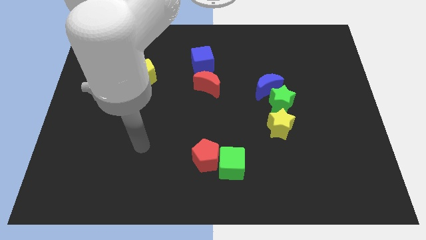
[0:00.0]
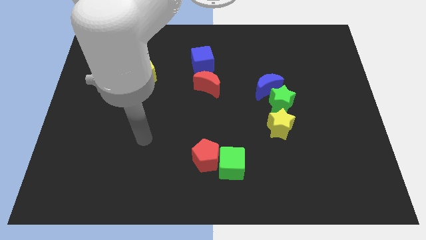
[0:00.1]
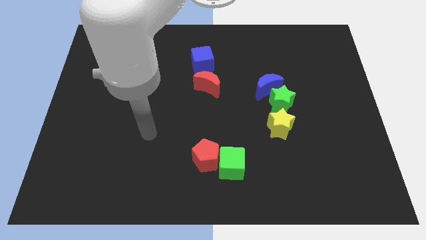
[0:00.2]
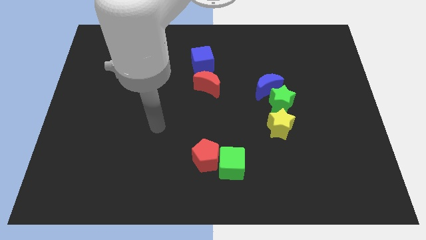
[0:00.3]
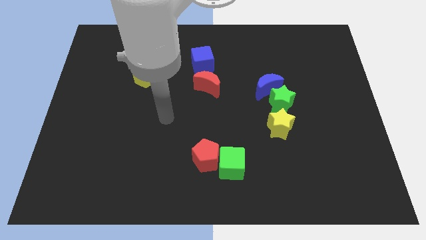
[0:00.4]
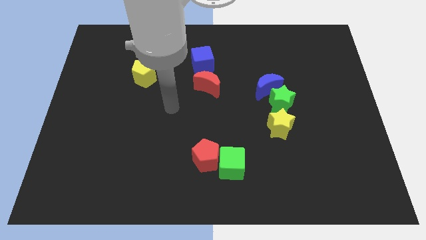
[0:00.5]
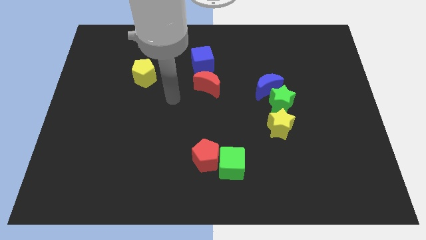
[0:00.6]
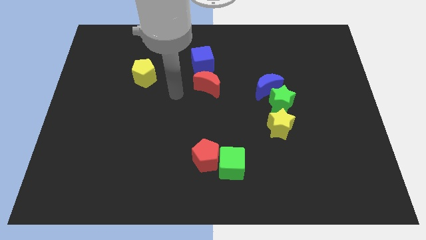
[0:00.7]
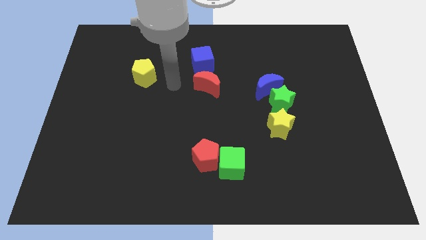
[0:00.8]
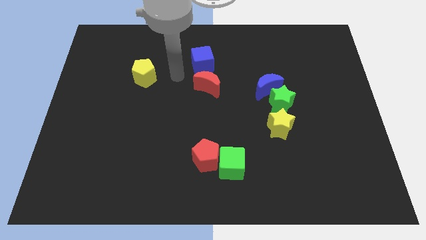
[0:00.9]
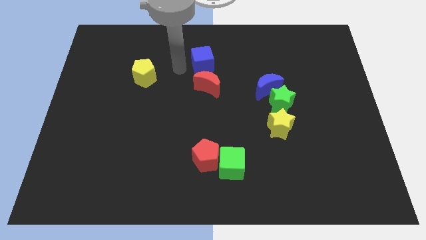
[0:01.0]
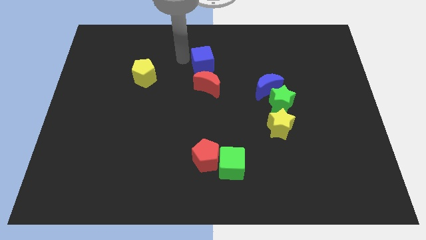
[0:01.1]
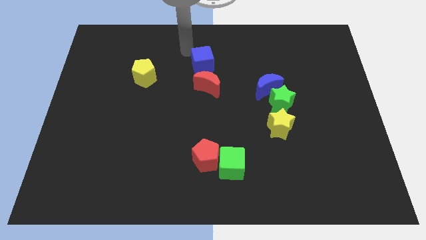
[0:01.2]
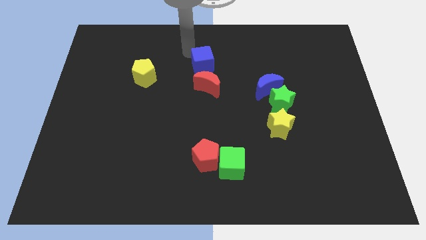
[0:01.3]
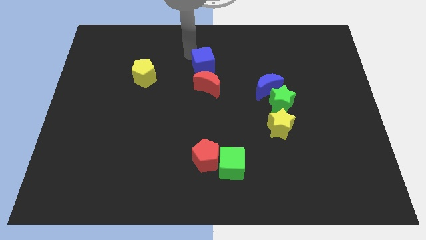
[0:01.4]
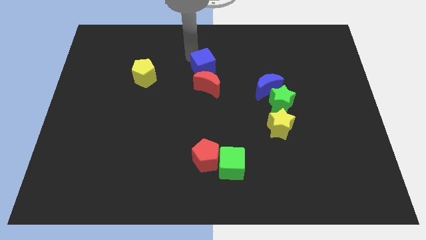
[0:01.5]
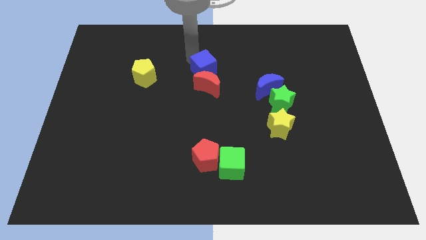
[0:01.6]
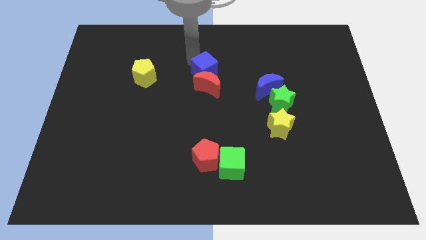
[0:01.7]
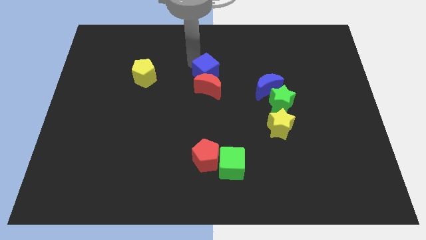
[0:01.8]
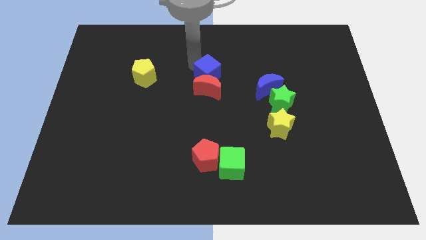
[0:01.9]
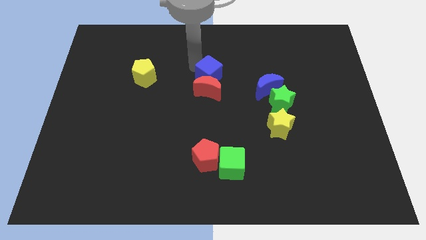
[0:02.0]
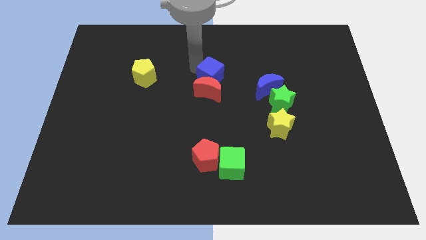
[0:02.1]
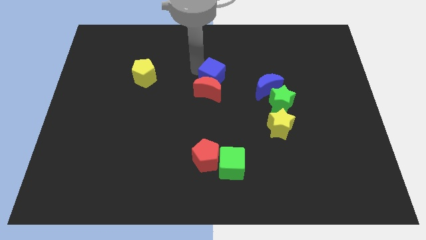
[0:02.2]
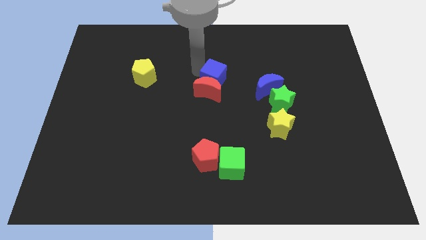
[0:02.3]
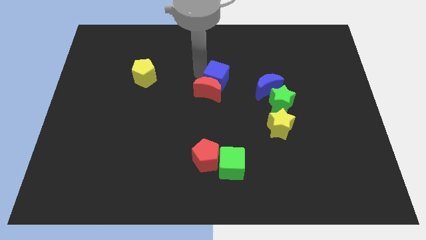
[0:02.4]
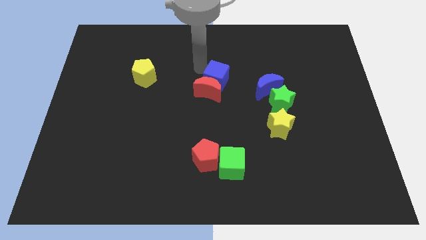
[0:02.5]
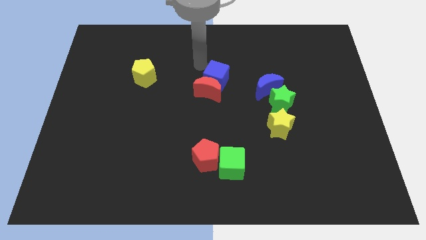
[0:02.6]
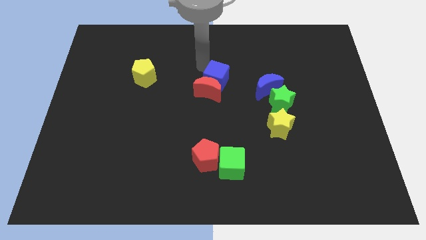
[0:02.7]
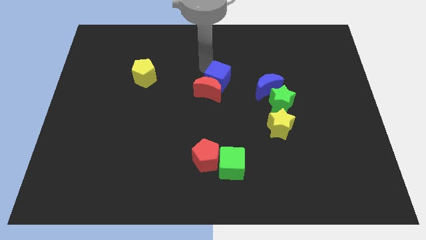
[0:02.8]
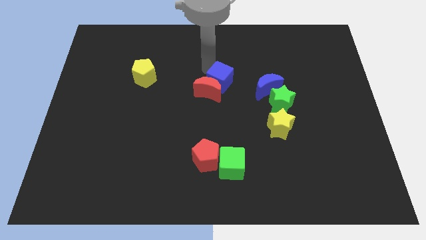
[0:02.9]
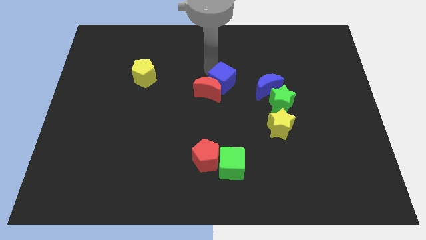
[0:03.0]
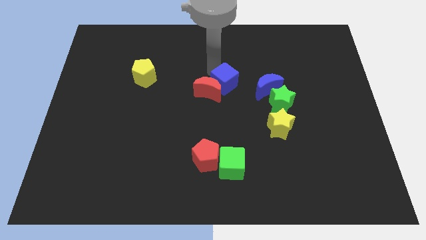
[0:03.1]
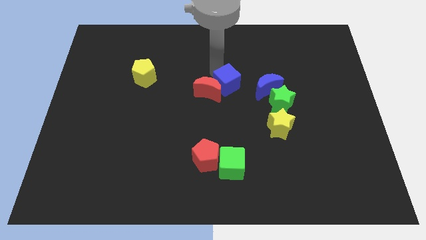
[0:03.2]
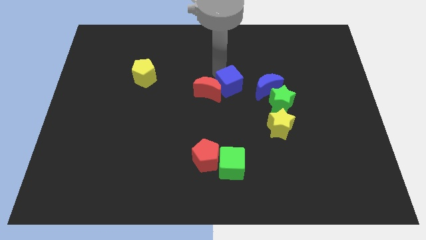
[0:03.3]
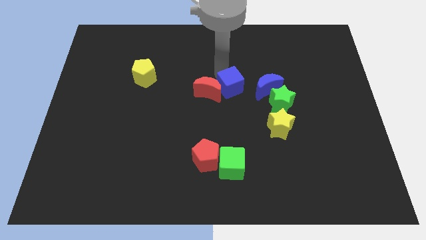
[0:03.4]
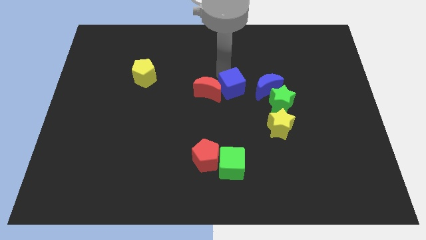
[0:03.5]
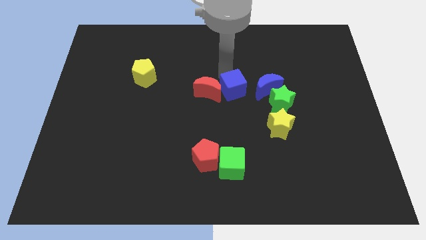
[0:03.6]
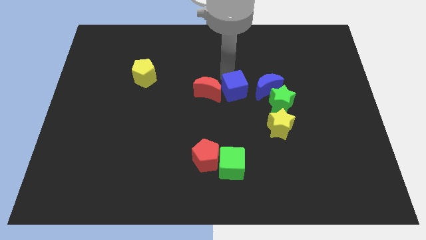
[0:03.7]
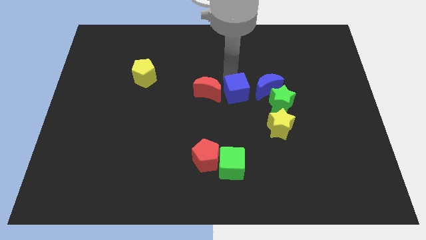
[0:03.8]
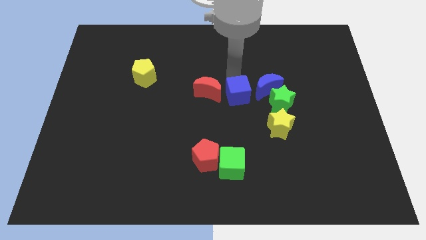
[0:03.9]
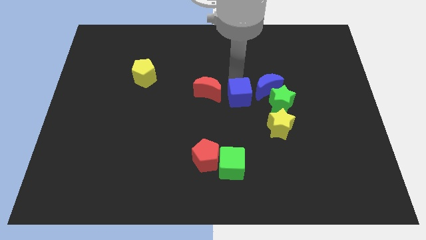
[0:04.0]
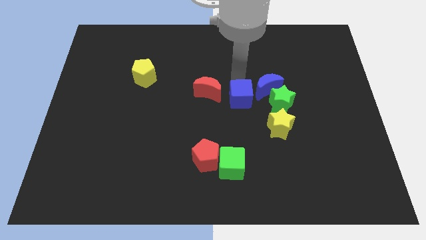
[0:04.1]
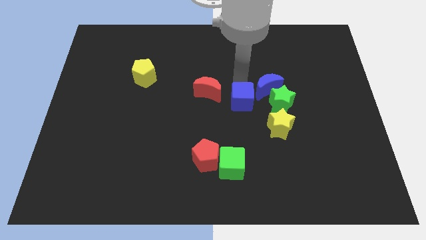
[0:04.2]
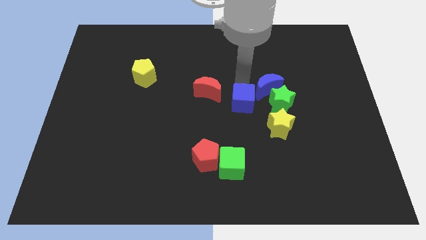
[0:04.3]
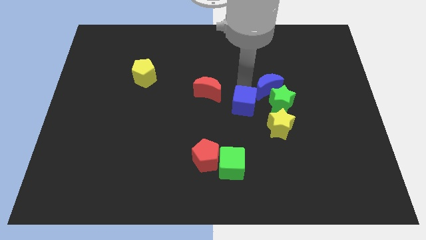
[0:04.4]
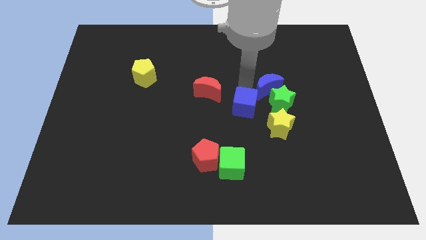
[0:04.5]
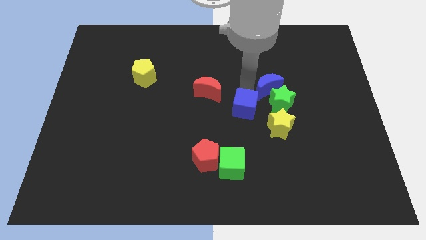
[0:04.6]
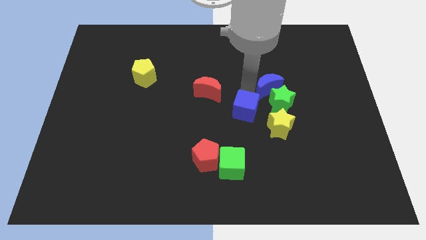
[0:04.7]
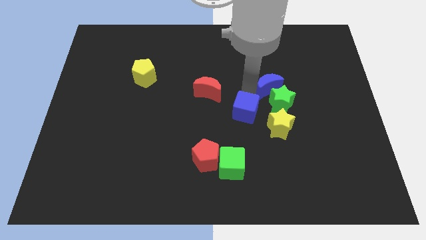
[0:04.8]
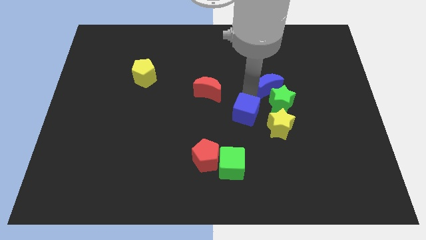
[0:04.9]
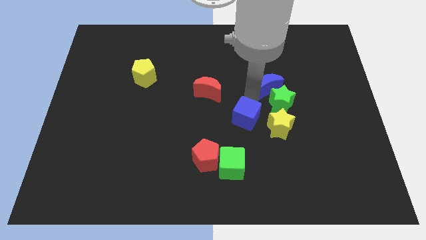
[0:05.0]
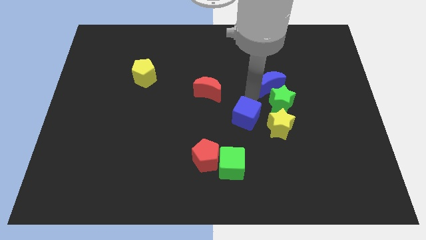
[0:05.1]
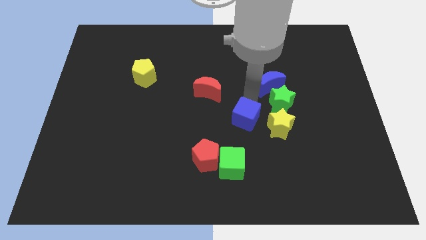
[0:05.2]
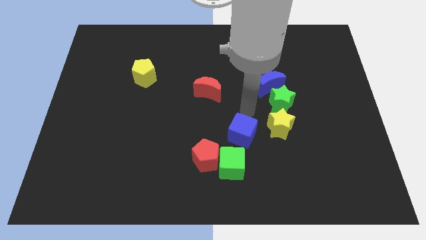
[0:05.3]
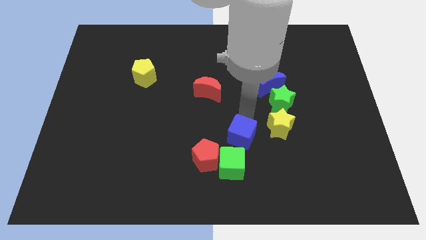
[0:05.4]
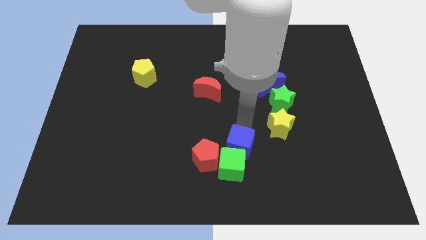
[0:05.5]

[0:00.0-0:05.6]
move the blue cube close to the green cube
